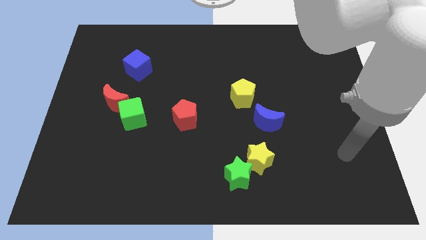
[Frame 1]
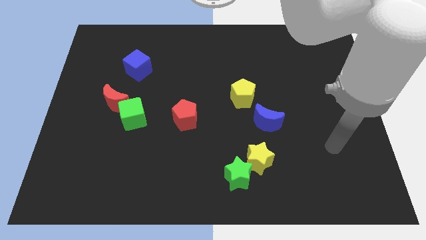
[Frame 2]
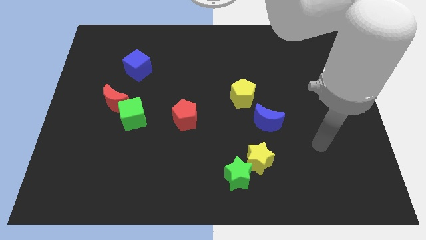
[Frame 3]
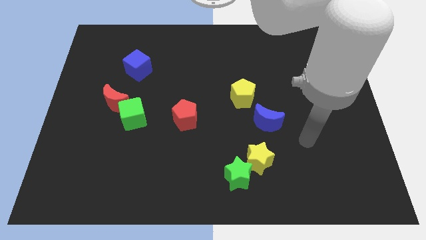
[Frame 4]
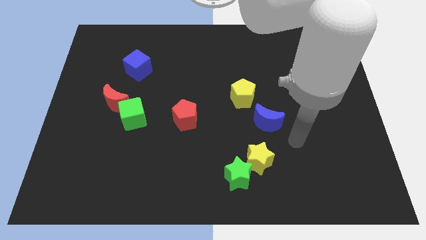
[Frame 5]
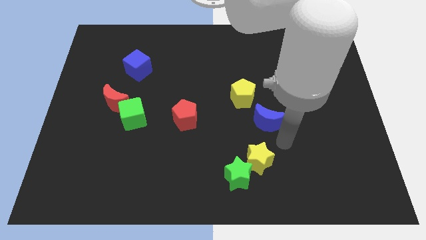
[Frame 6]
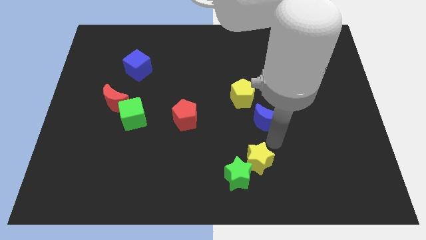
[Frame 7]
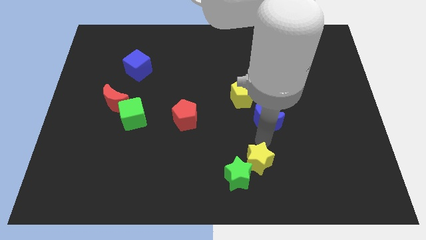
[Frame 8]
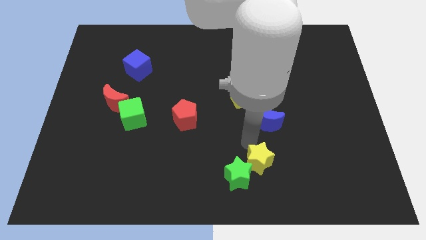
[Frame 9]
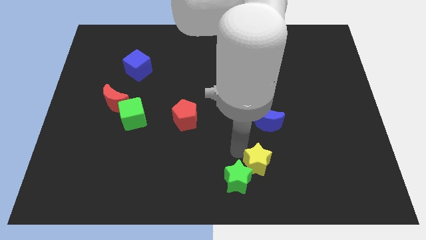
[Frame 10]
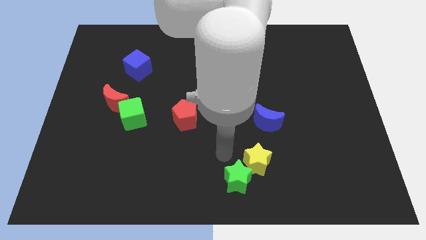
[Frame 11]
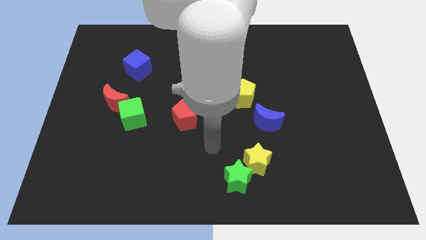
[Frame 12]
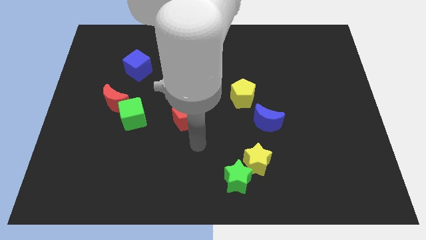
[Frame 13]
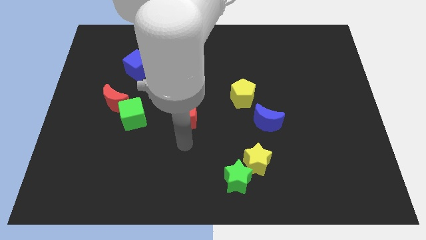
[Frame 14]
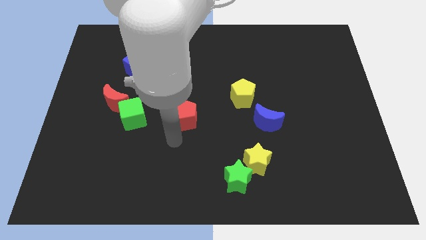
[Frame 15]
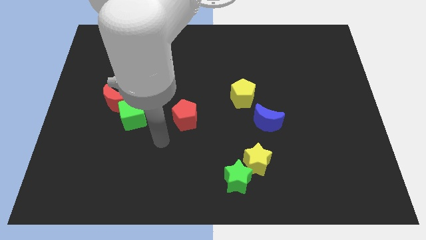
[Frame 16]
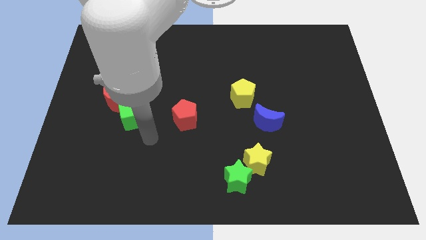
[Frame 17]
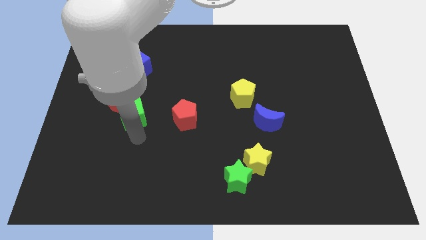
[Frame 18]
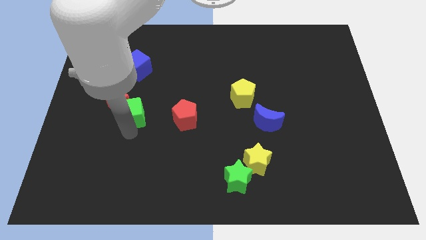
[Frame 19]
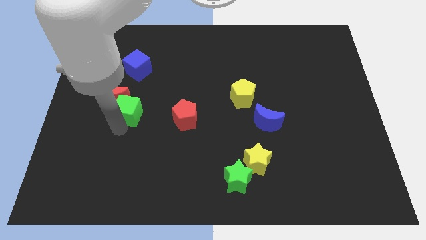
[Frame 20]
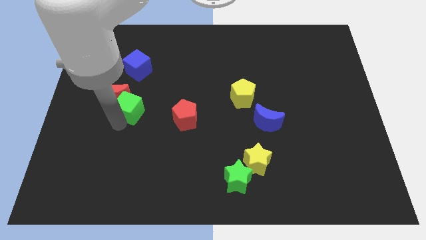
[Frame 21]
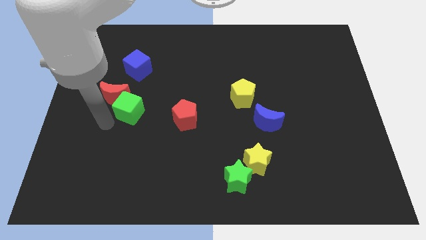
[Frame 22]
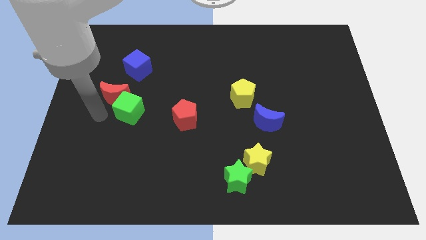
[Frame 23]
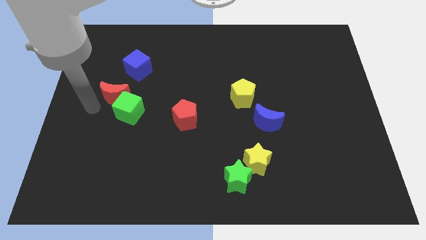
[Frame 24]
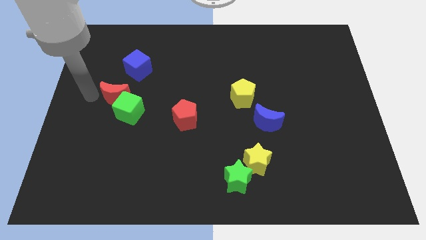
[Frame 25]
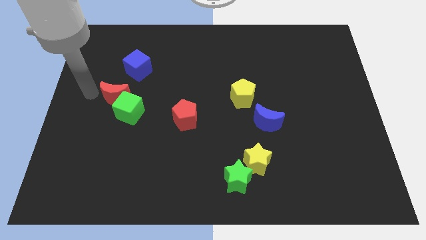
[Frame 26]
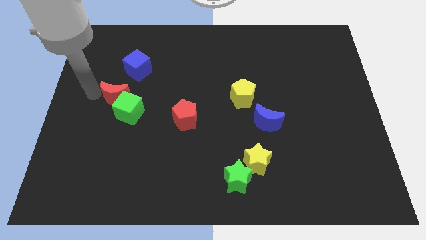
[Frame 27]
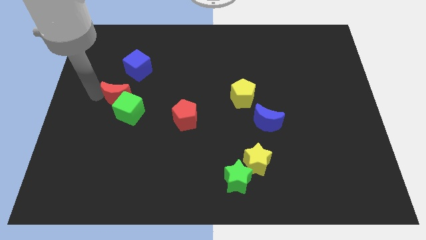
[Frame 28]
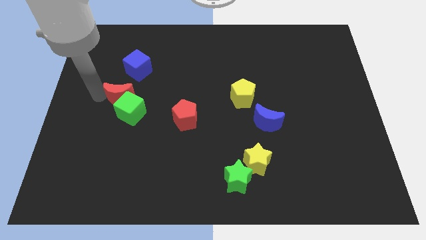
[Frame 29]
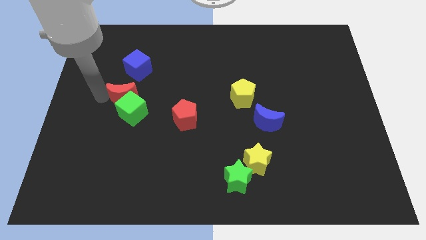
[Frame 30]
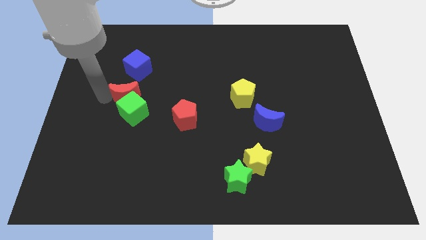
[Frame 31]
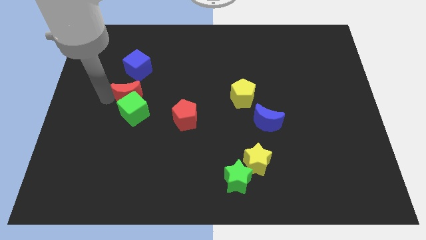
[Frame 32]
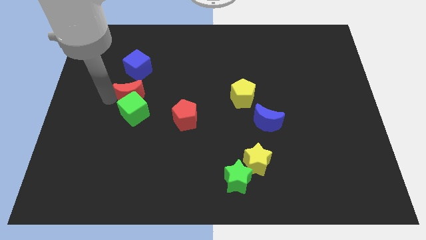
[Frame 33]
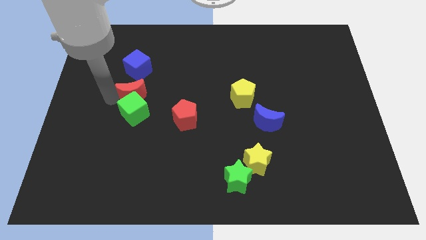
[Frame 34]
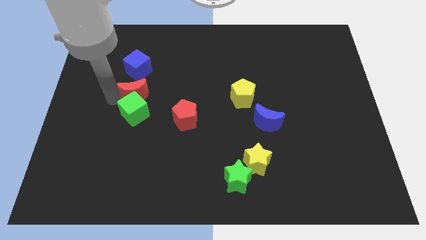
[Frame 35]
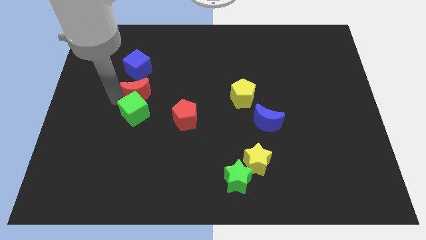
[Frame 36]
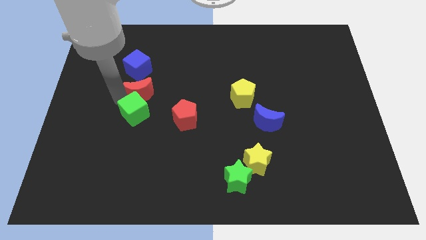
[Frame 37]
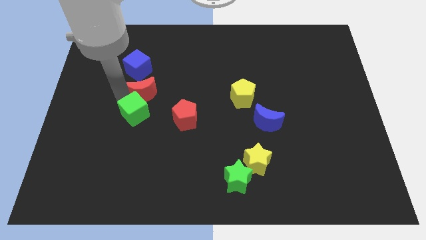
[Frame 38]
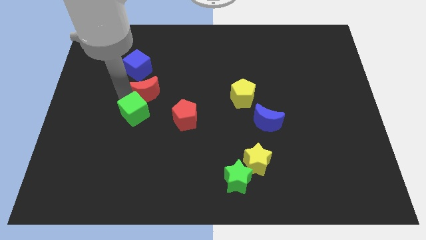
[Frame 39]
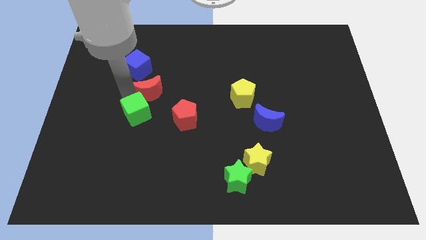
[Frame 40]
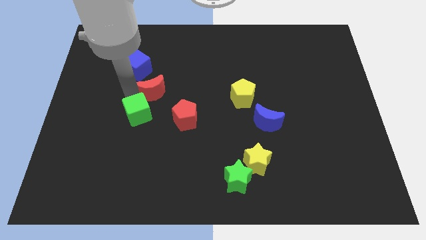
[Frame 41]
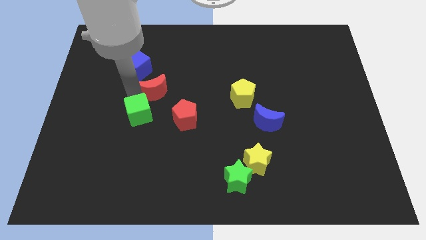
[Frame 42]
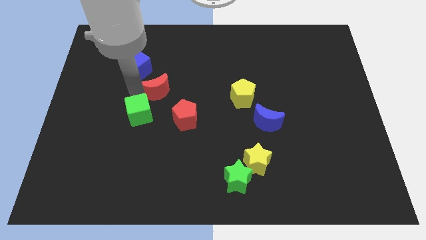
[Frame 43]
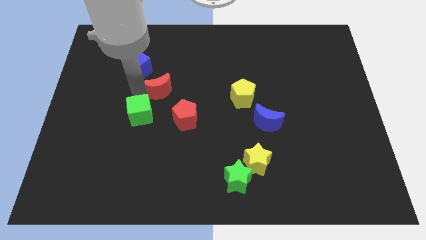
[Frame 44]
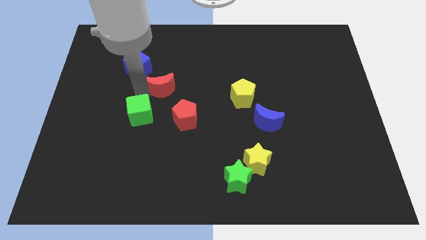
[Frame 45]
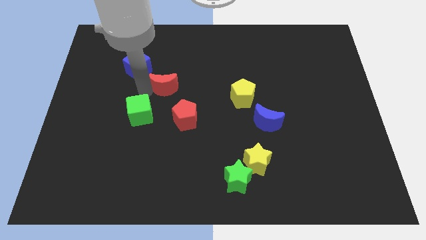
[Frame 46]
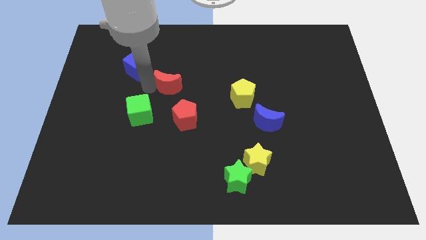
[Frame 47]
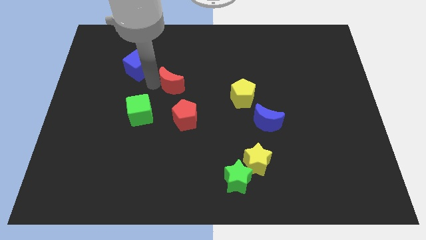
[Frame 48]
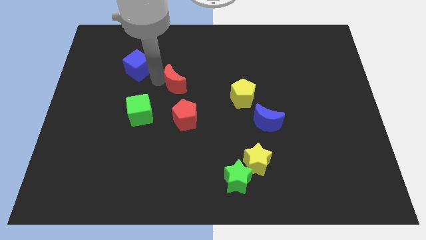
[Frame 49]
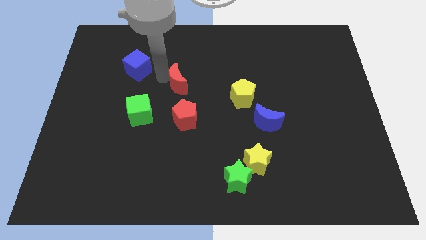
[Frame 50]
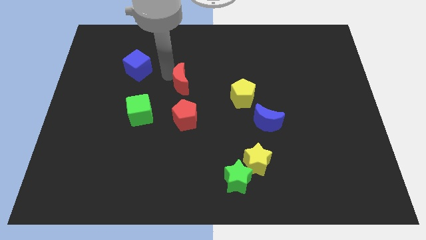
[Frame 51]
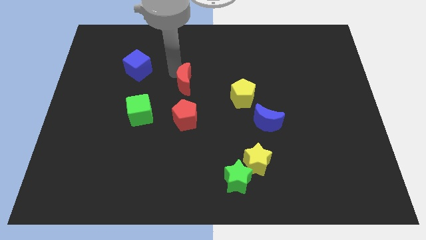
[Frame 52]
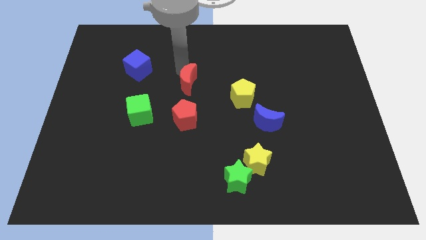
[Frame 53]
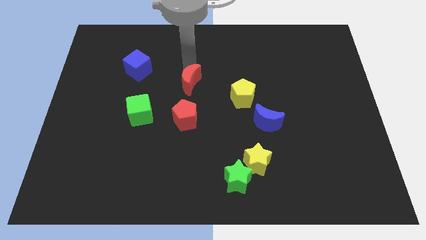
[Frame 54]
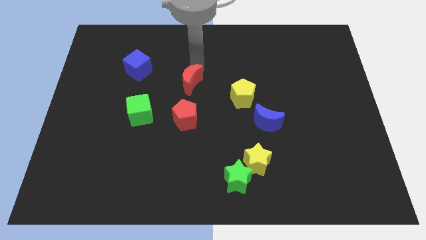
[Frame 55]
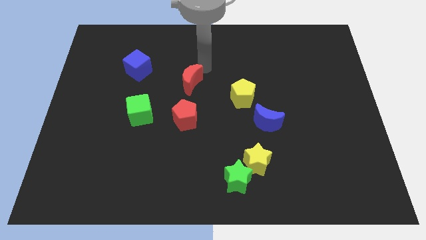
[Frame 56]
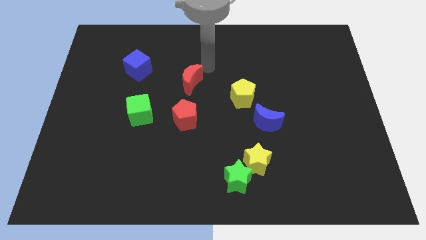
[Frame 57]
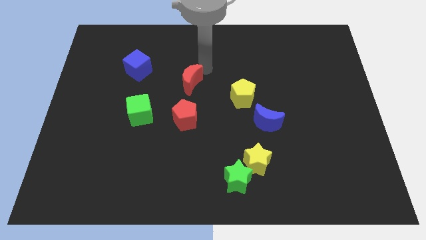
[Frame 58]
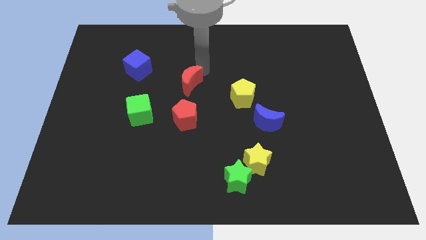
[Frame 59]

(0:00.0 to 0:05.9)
put the red moon left of the yellow pentagon

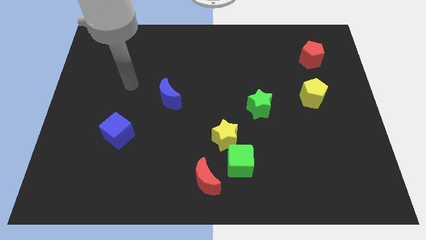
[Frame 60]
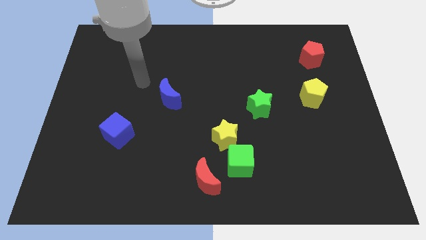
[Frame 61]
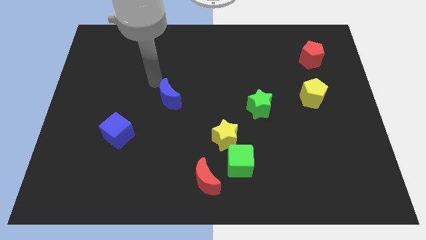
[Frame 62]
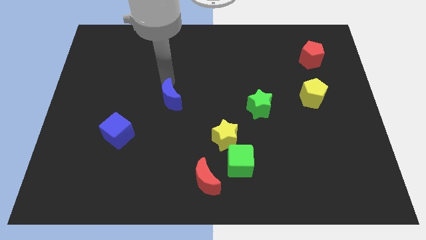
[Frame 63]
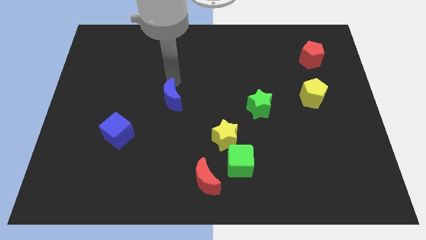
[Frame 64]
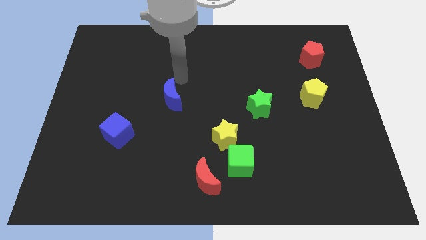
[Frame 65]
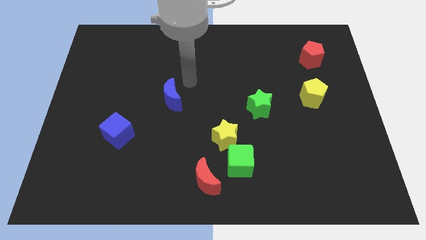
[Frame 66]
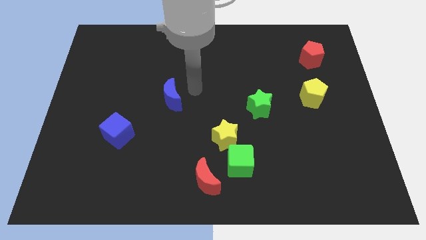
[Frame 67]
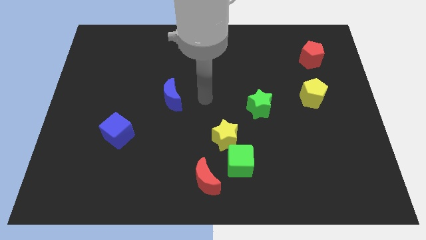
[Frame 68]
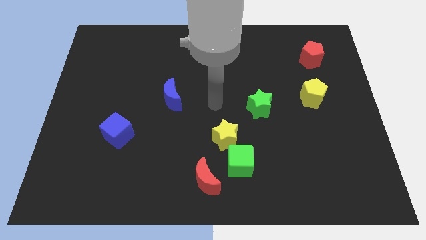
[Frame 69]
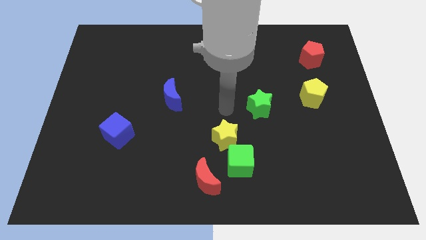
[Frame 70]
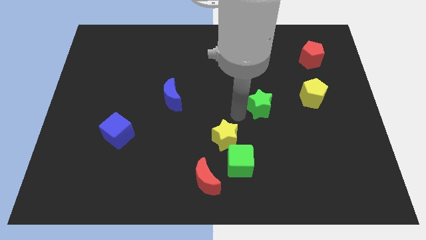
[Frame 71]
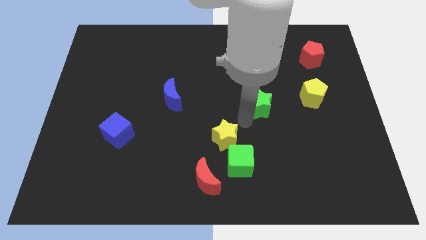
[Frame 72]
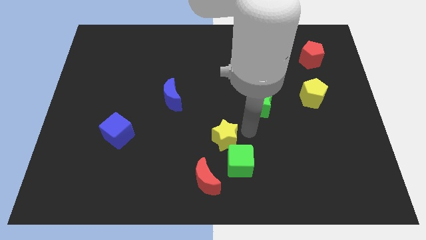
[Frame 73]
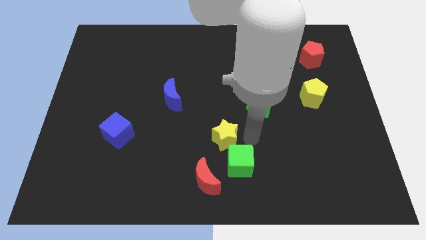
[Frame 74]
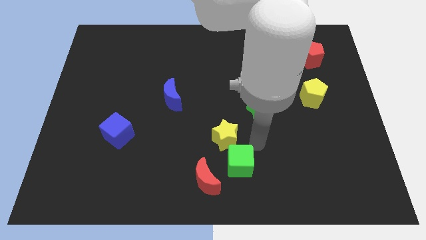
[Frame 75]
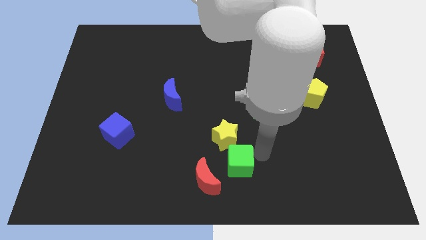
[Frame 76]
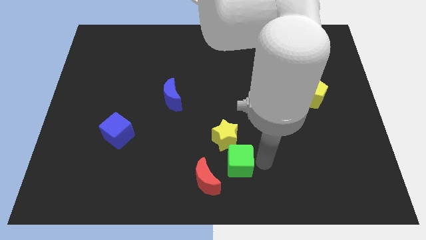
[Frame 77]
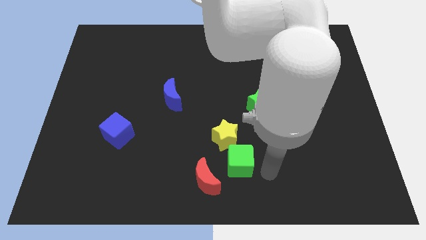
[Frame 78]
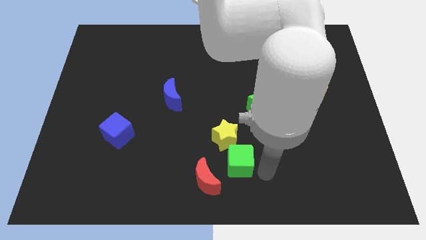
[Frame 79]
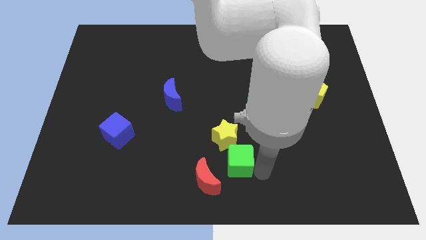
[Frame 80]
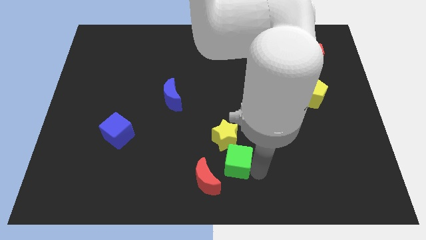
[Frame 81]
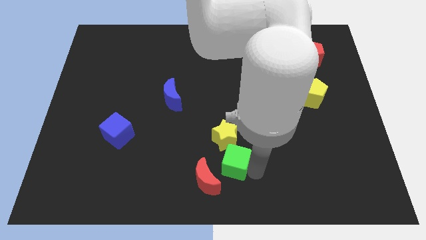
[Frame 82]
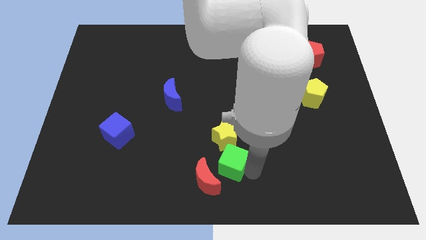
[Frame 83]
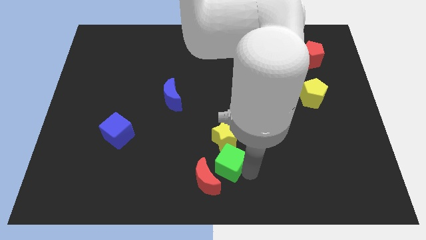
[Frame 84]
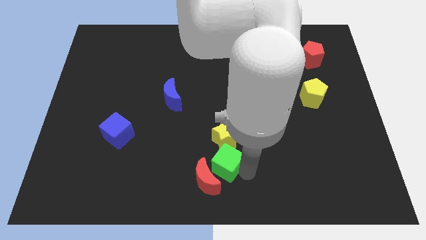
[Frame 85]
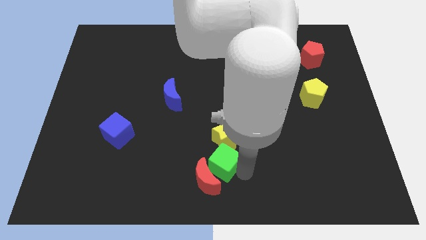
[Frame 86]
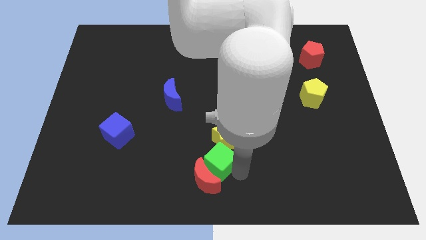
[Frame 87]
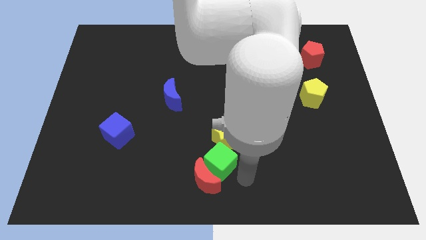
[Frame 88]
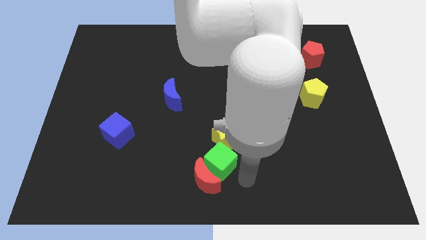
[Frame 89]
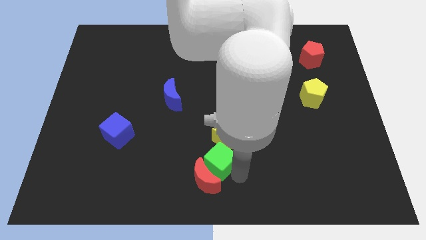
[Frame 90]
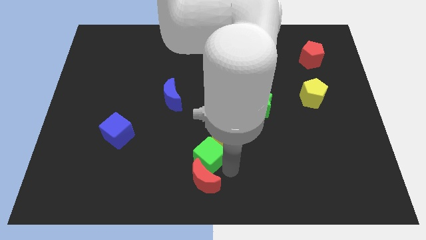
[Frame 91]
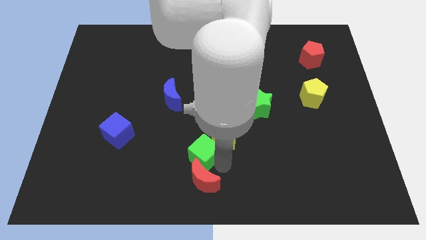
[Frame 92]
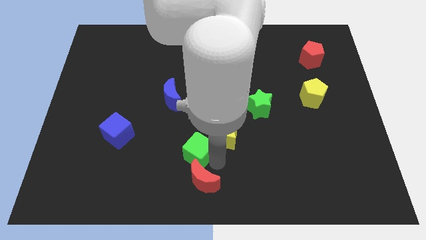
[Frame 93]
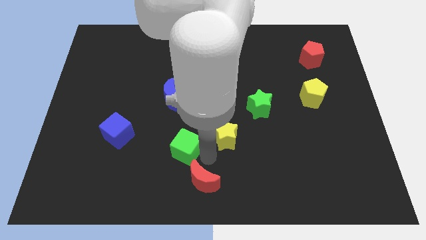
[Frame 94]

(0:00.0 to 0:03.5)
push the green cube below the blue moon
